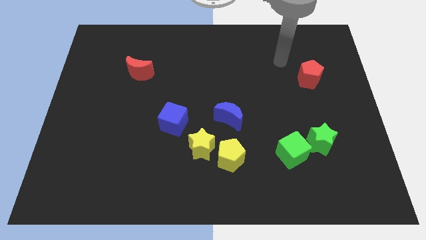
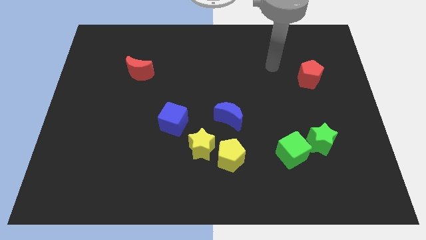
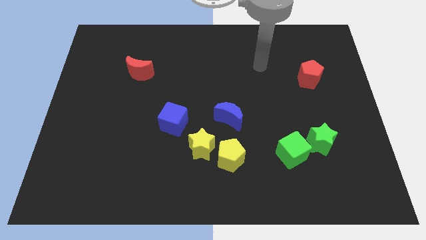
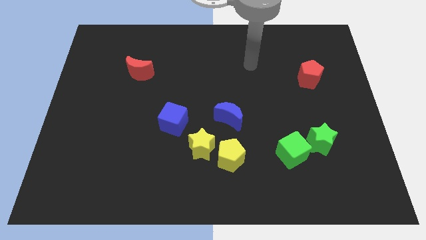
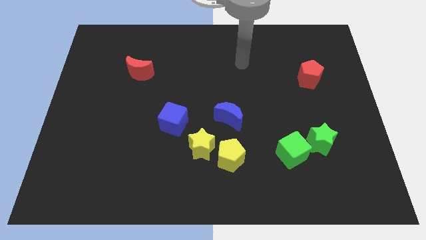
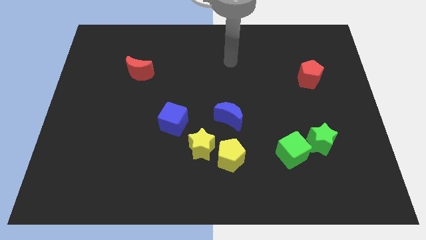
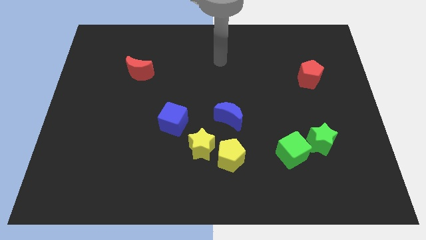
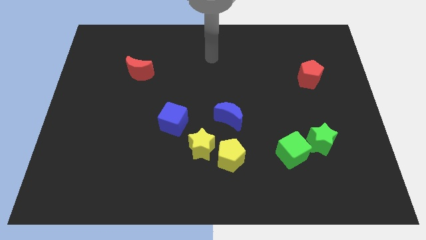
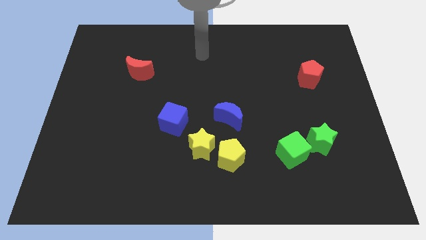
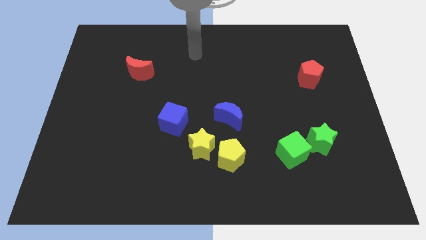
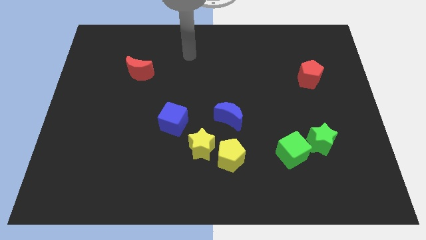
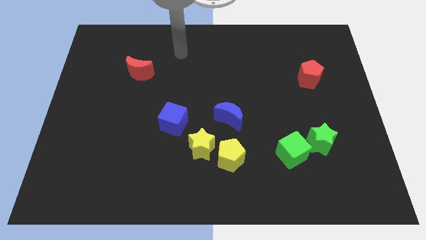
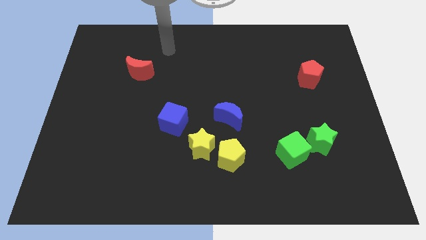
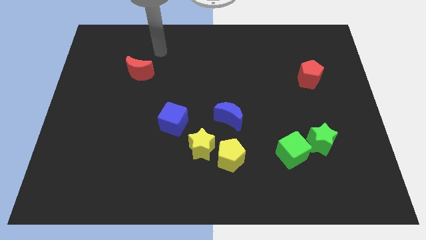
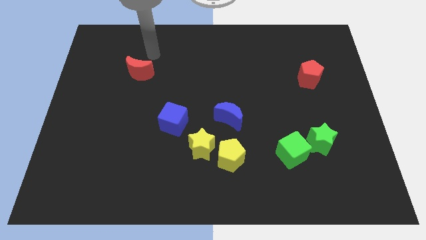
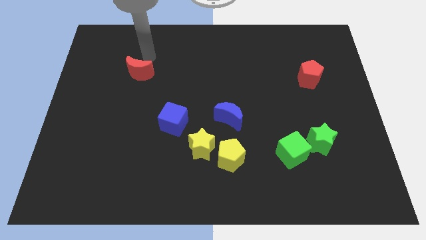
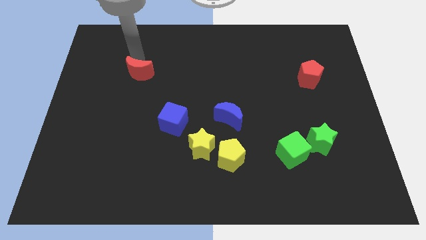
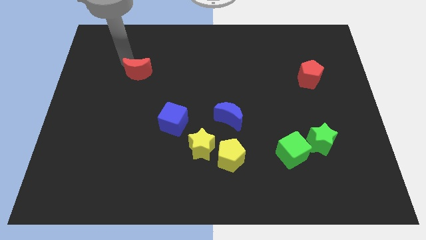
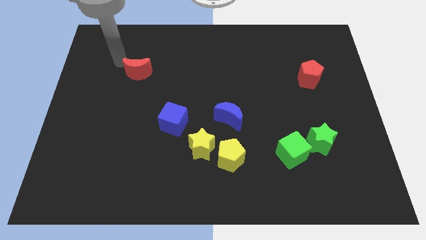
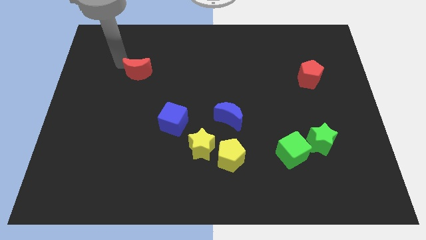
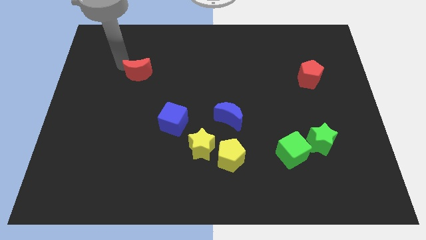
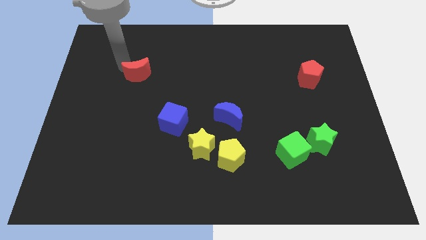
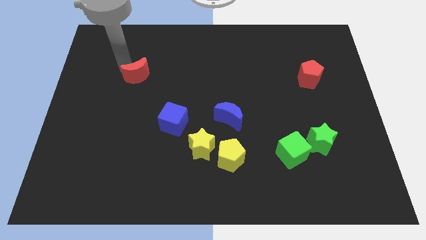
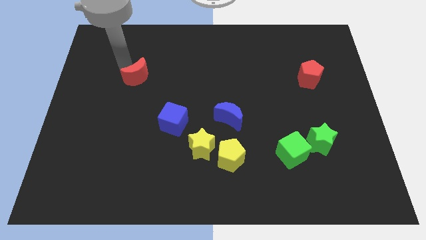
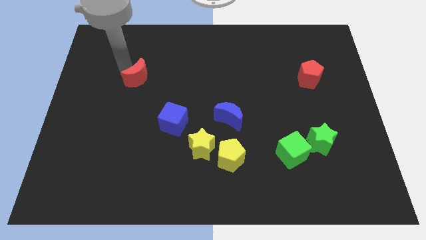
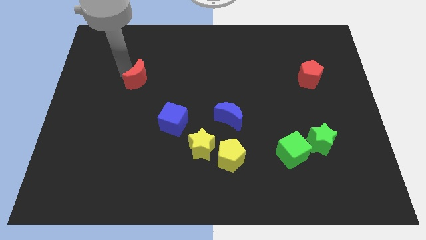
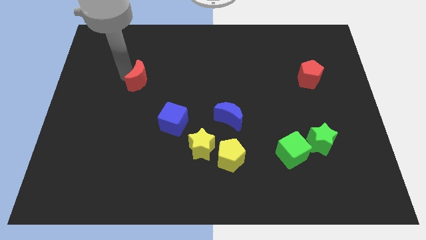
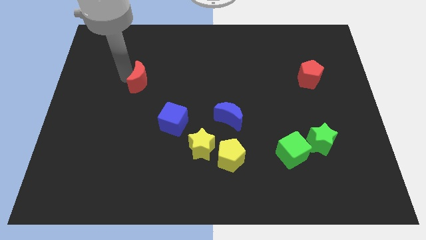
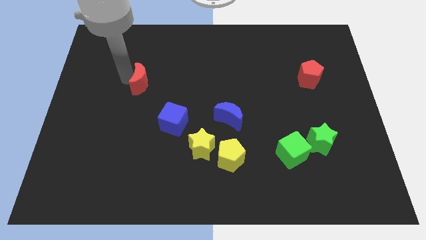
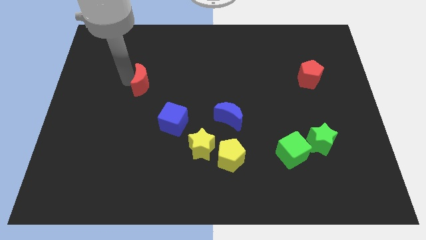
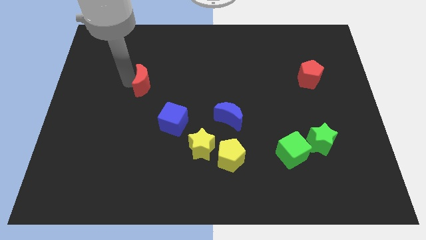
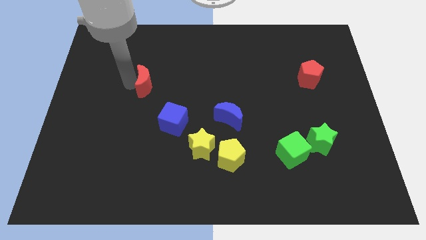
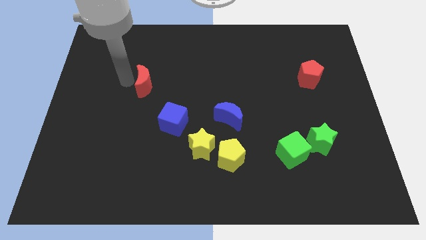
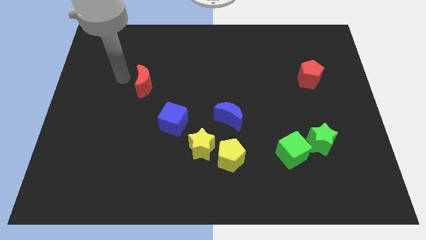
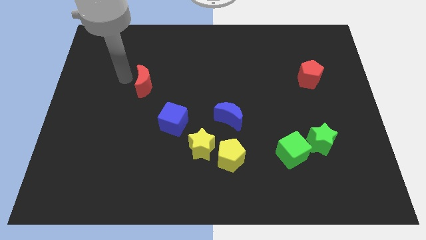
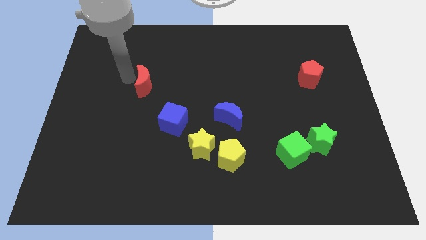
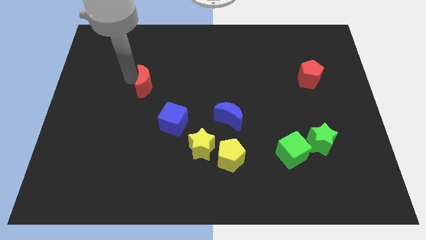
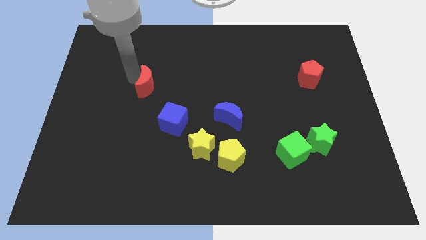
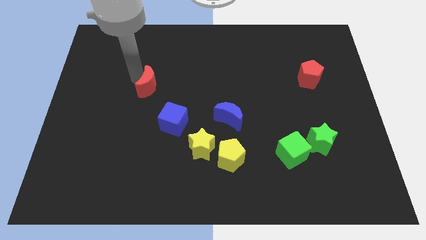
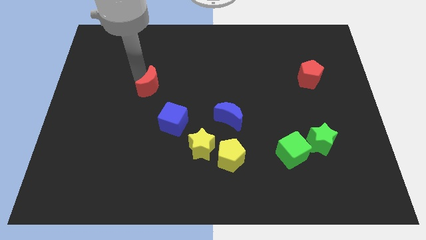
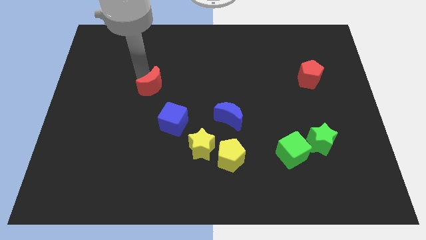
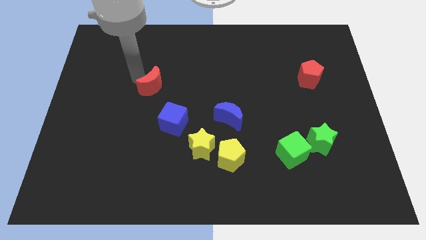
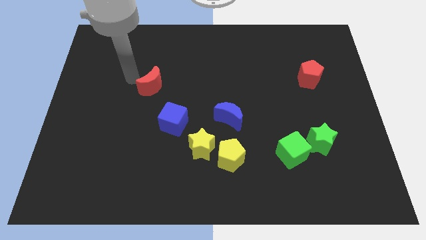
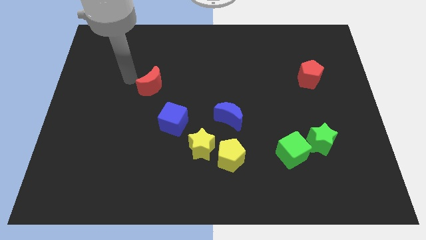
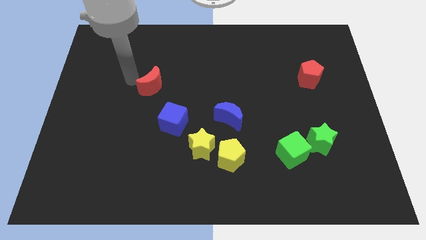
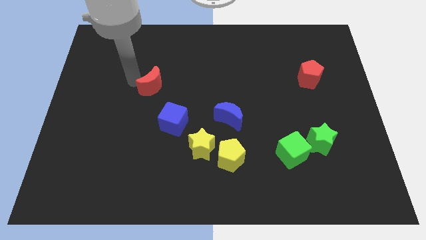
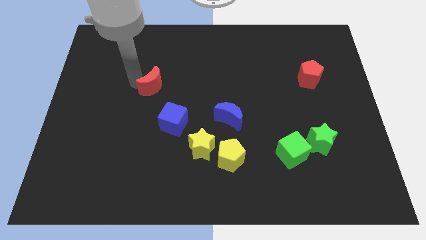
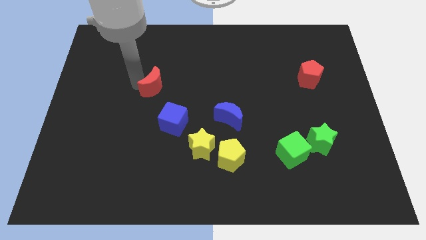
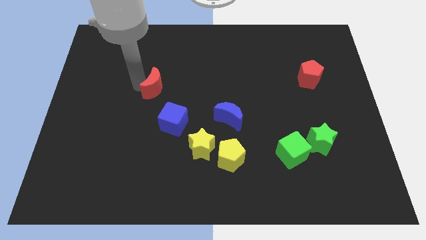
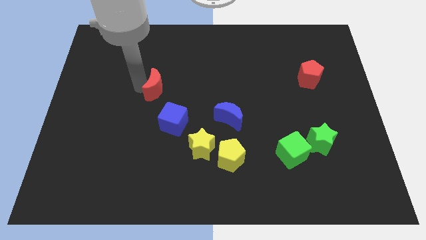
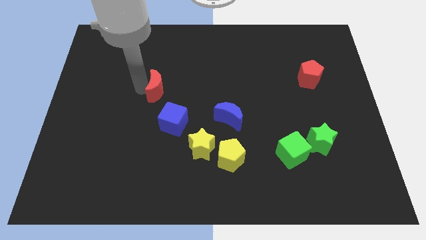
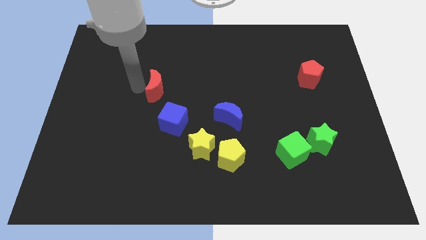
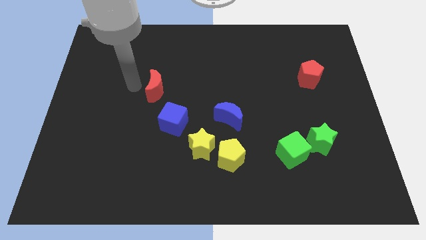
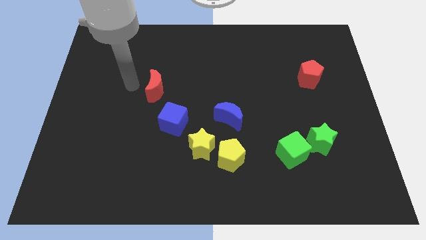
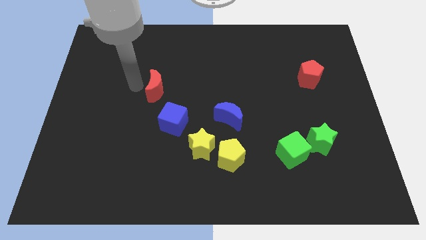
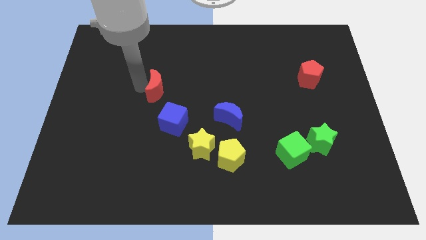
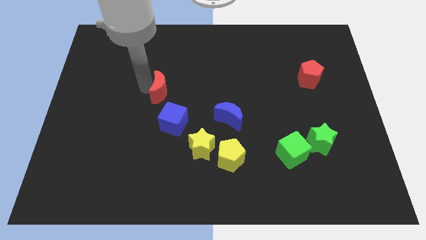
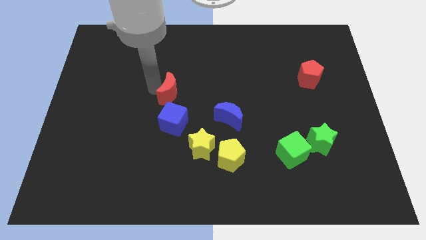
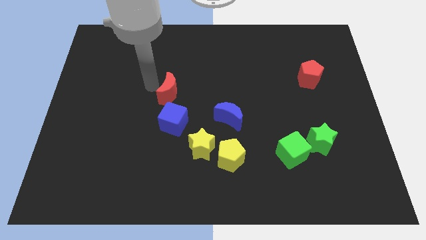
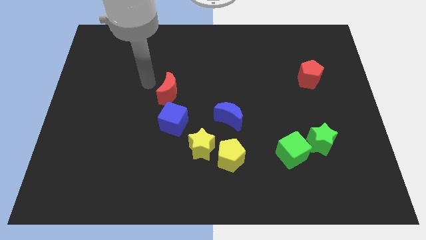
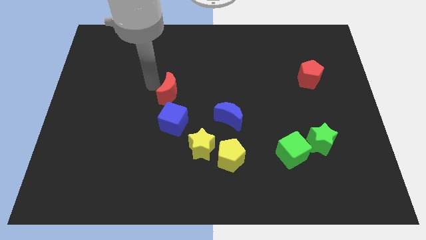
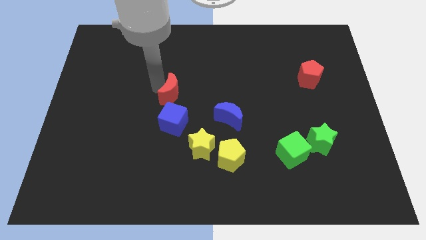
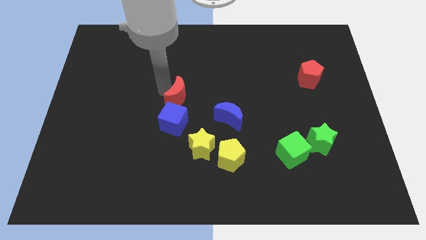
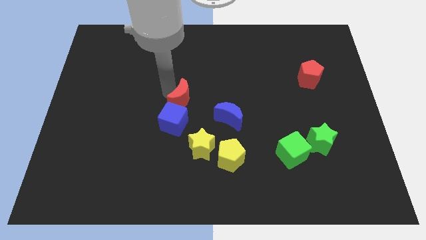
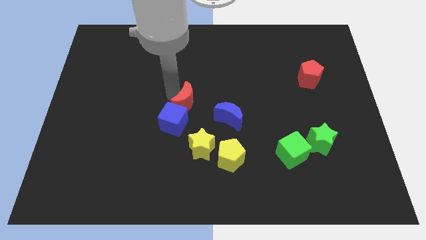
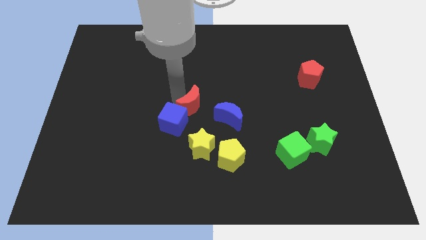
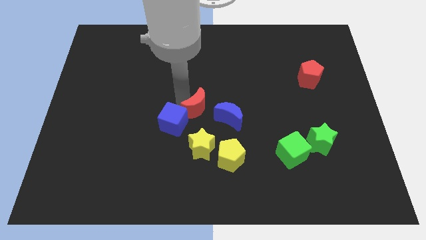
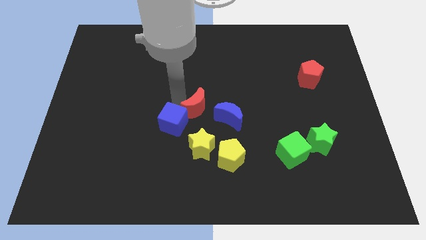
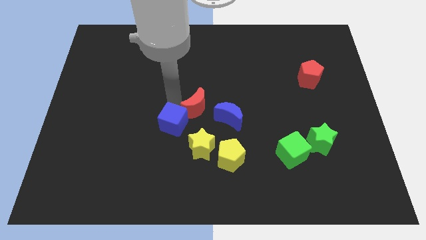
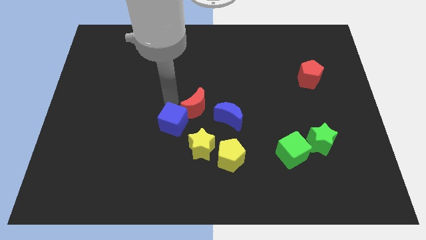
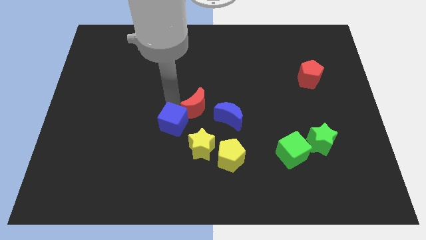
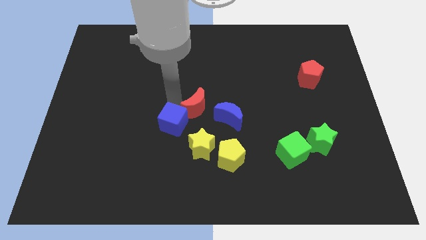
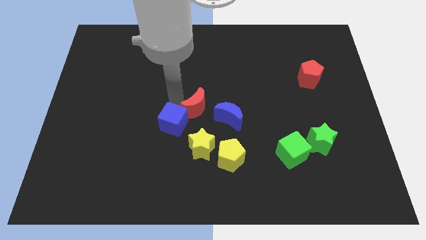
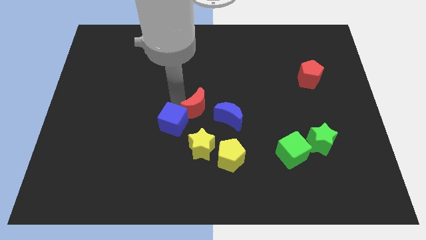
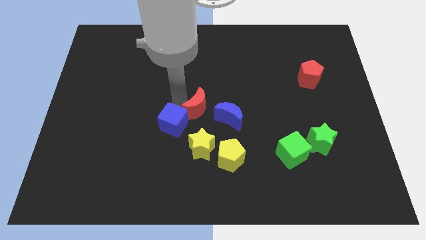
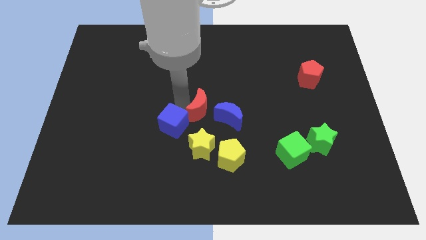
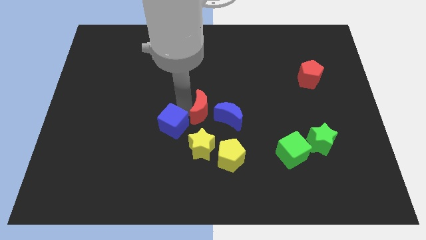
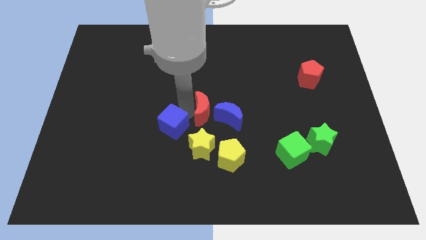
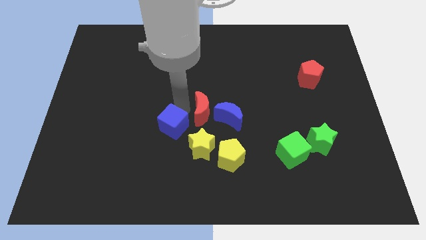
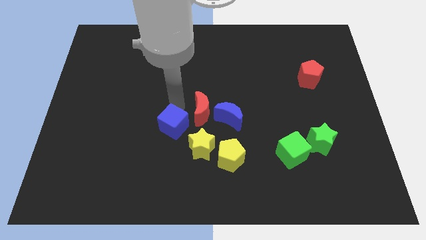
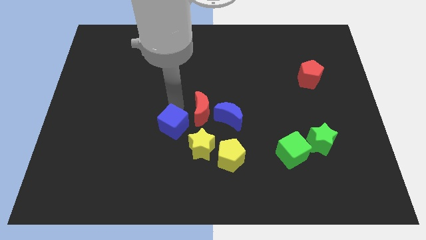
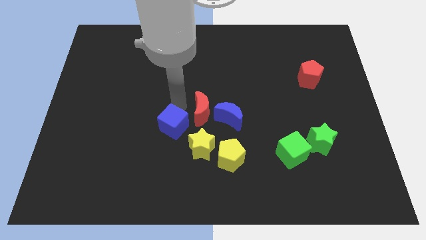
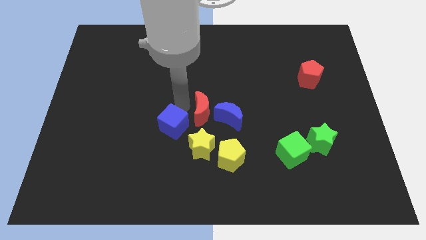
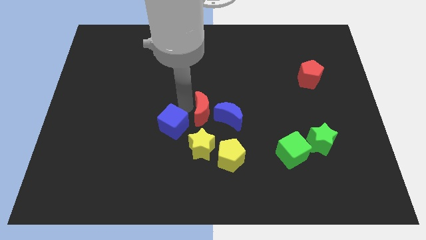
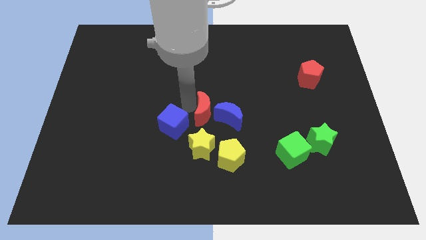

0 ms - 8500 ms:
move the red moon to the blue moon
